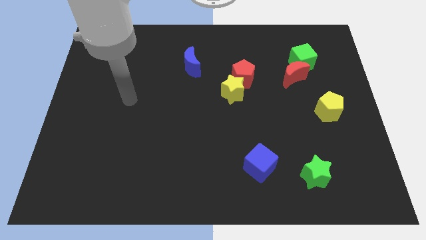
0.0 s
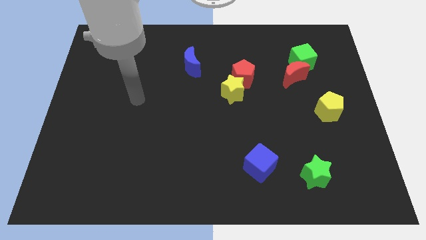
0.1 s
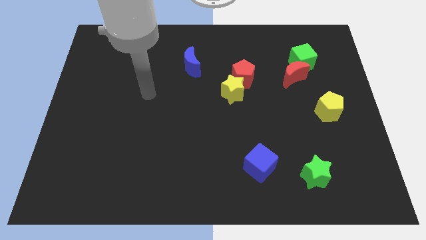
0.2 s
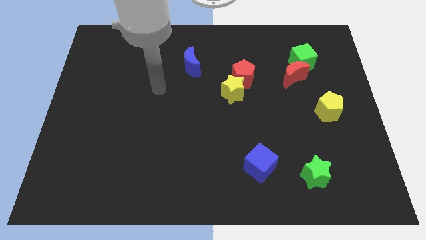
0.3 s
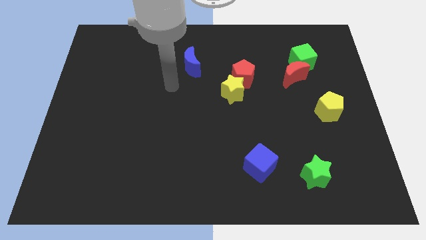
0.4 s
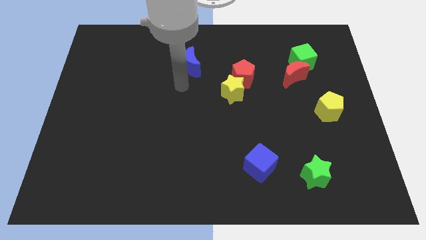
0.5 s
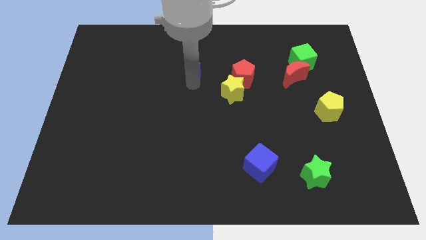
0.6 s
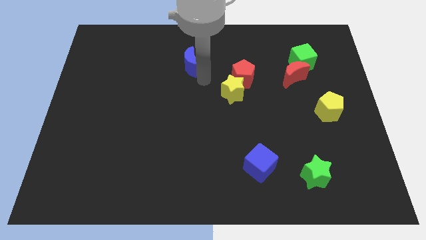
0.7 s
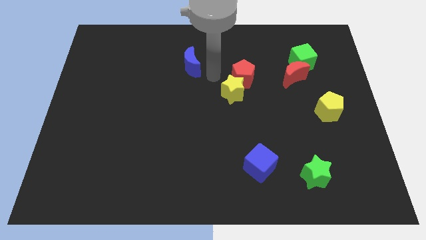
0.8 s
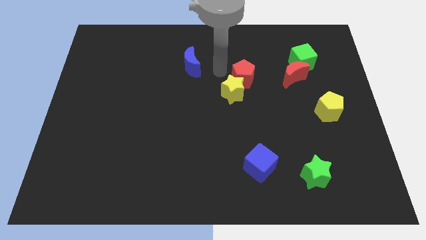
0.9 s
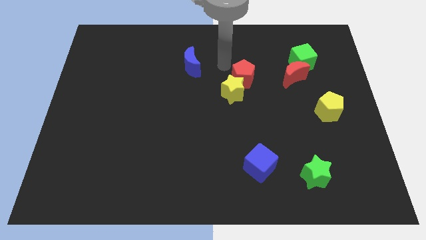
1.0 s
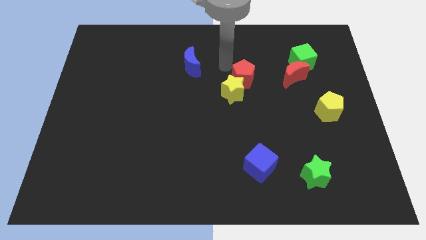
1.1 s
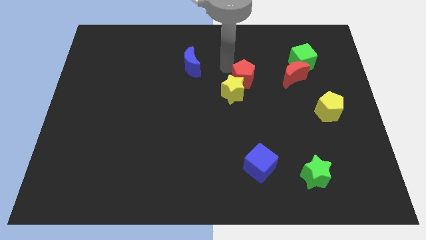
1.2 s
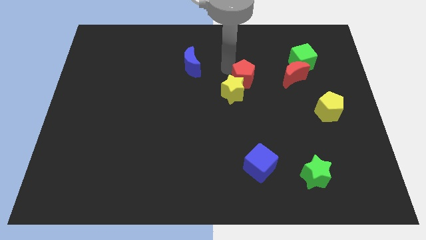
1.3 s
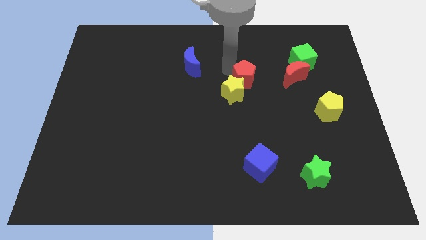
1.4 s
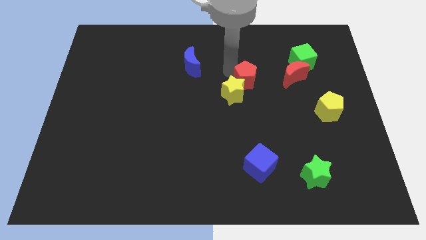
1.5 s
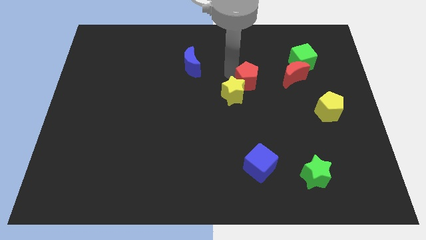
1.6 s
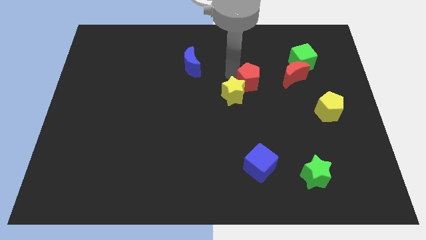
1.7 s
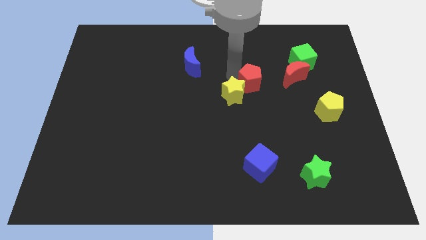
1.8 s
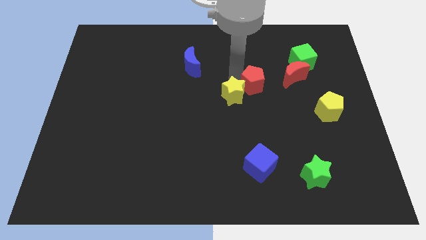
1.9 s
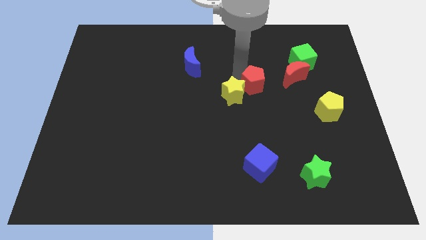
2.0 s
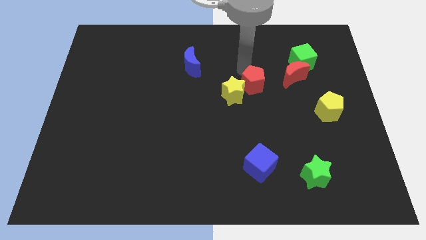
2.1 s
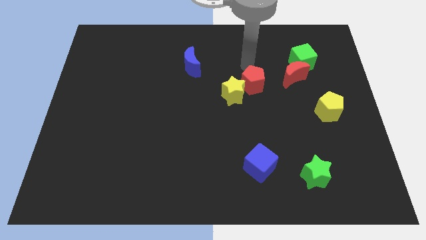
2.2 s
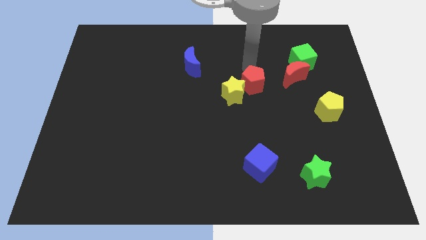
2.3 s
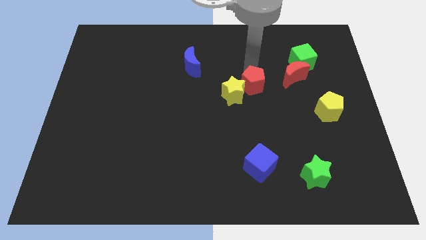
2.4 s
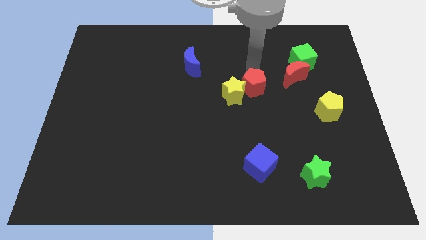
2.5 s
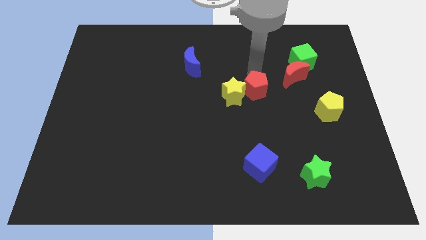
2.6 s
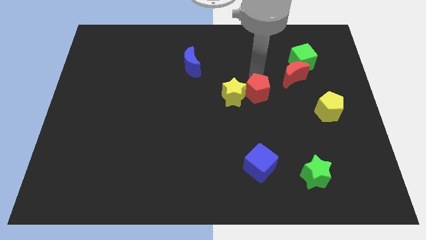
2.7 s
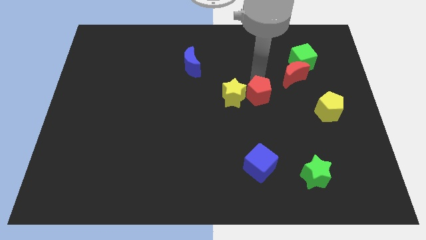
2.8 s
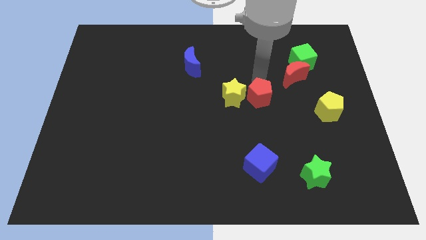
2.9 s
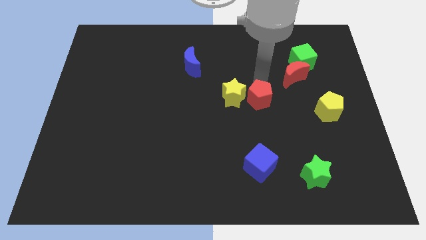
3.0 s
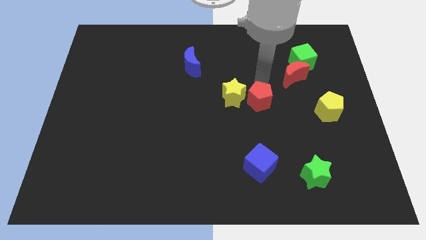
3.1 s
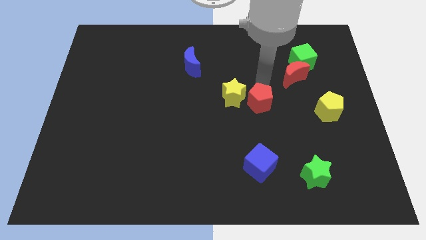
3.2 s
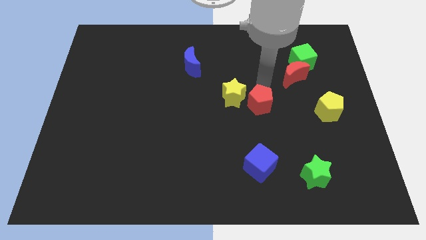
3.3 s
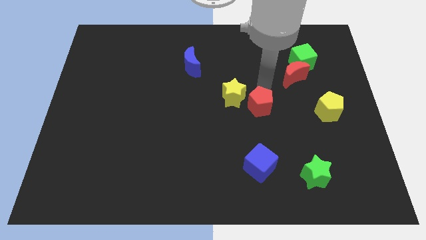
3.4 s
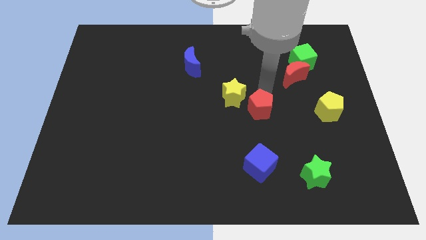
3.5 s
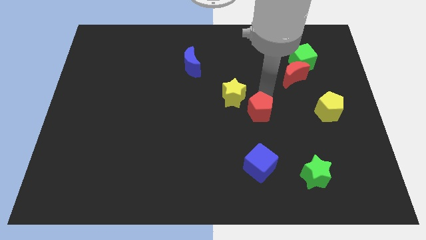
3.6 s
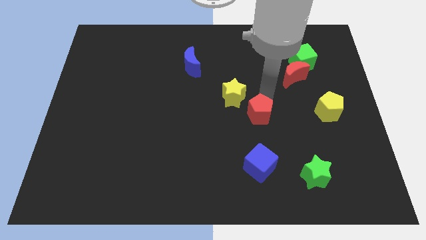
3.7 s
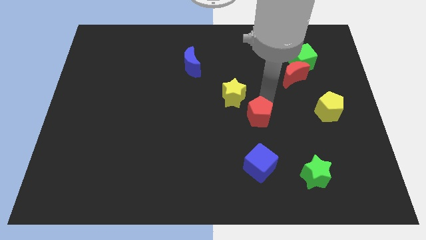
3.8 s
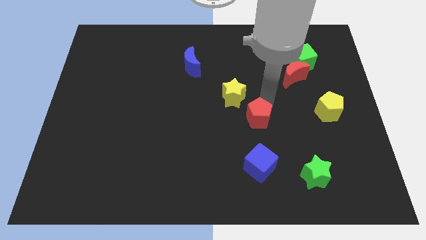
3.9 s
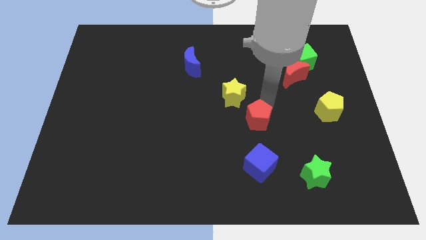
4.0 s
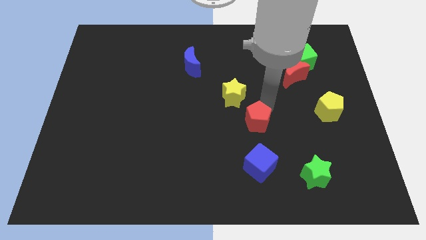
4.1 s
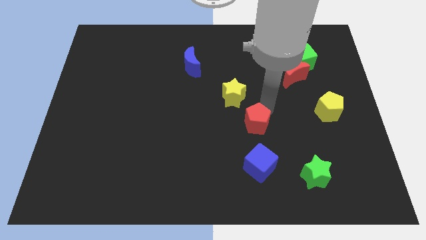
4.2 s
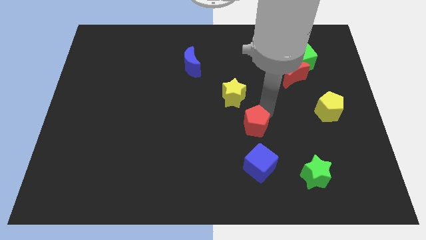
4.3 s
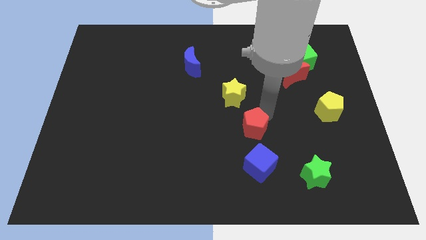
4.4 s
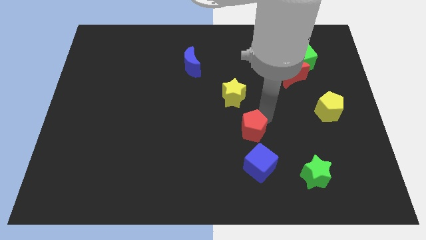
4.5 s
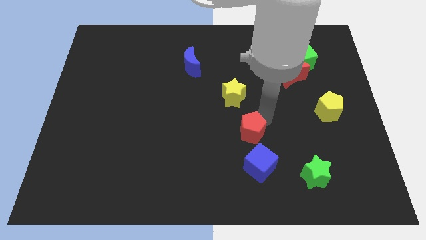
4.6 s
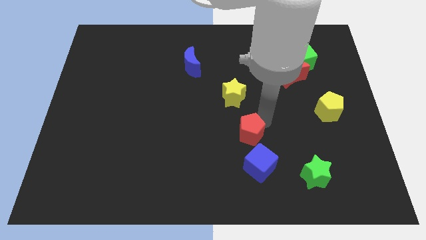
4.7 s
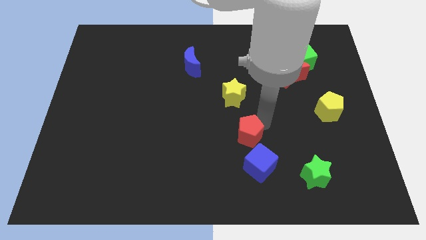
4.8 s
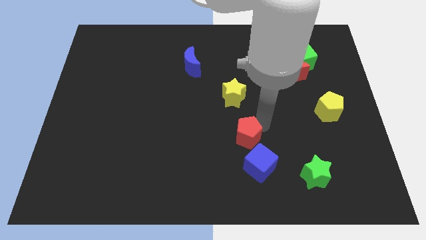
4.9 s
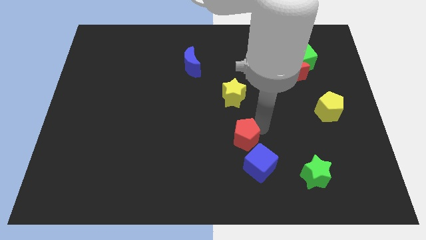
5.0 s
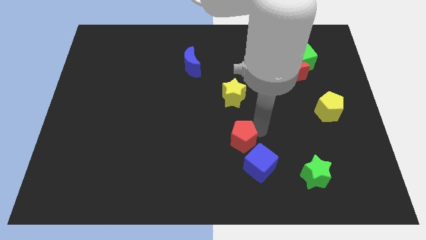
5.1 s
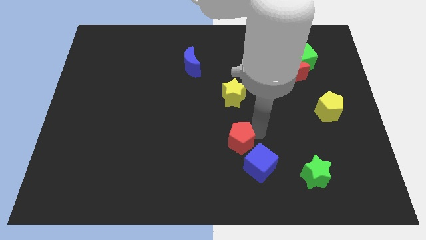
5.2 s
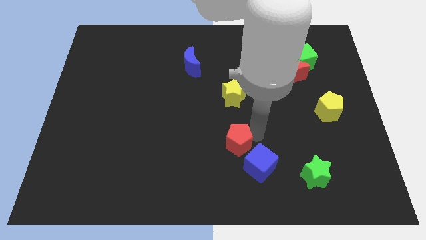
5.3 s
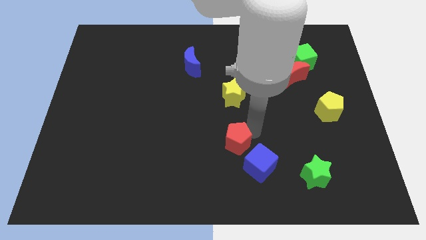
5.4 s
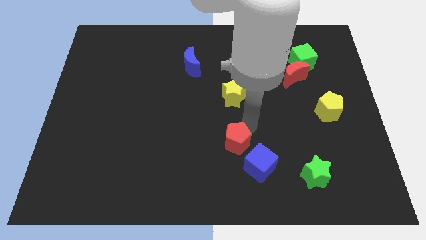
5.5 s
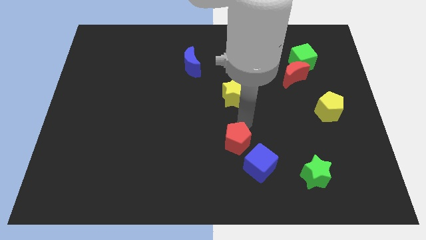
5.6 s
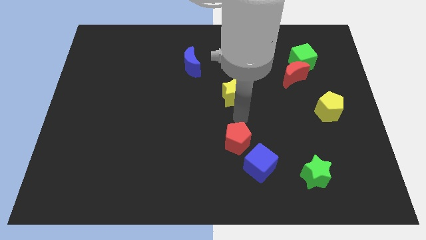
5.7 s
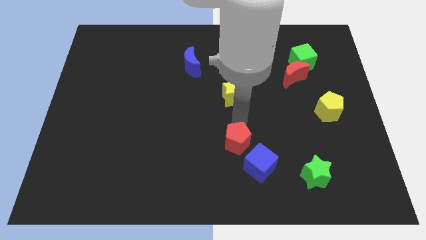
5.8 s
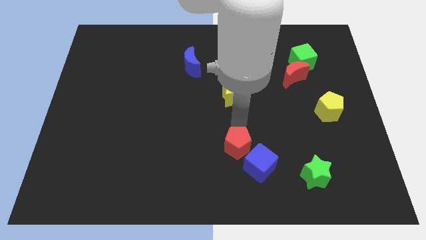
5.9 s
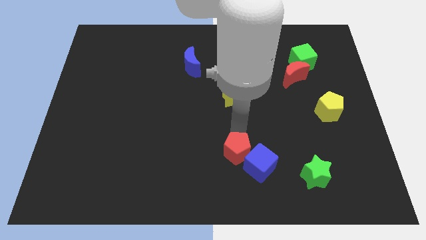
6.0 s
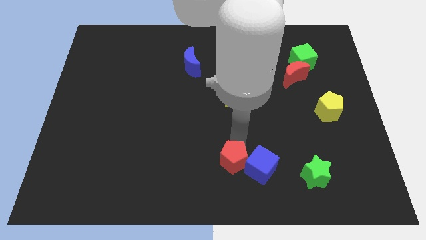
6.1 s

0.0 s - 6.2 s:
put the red pentagon to the bottom side
